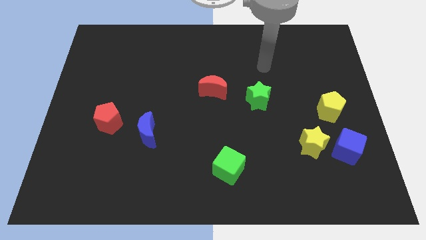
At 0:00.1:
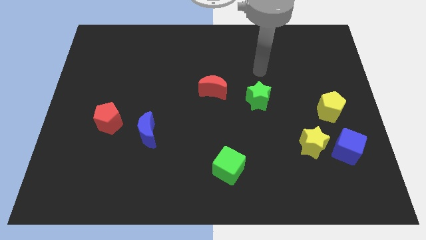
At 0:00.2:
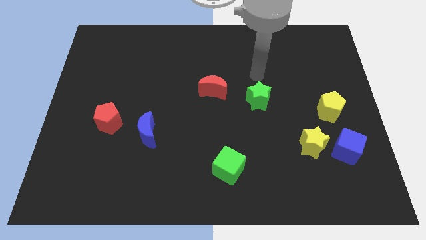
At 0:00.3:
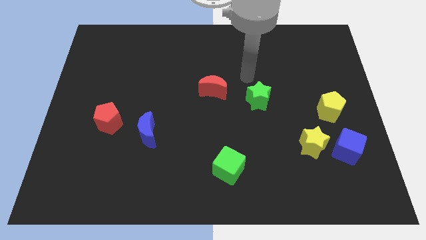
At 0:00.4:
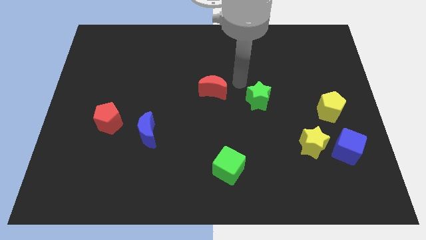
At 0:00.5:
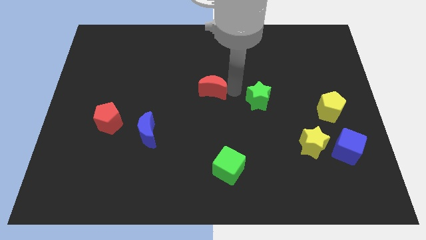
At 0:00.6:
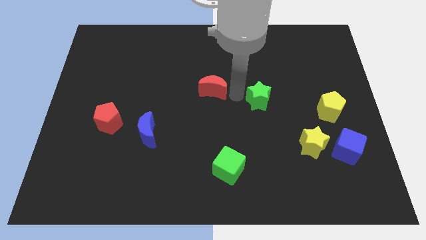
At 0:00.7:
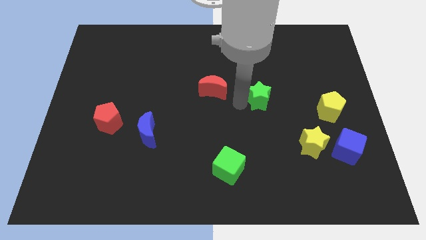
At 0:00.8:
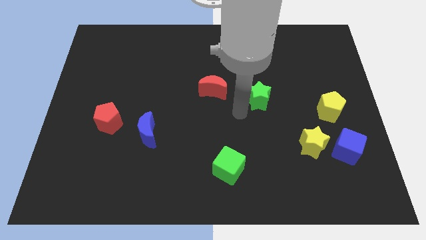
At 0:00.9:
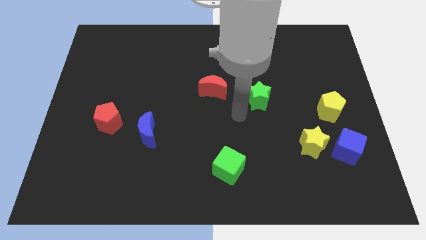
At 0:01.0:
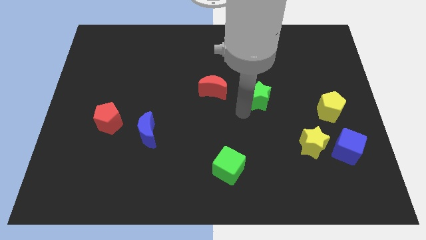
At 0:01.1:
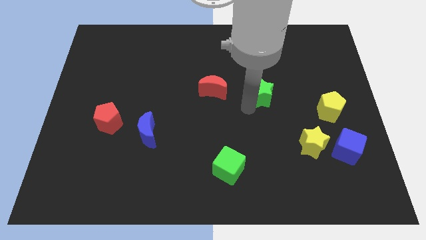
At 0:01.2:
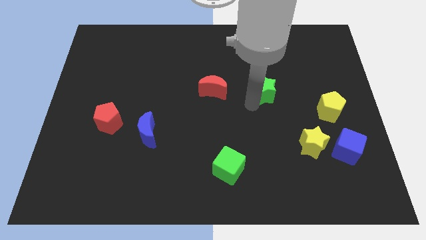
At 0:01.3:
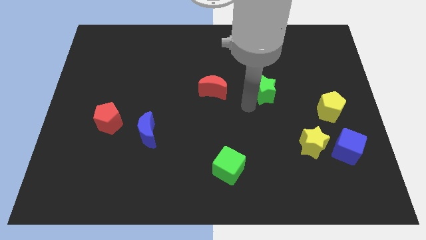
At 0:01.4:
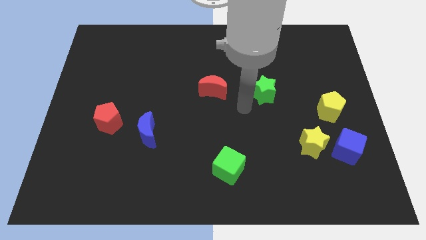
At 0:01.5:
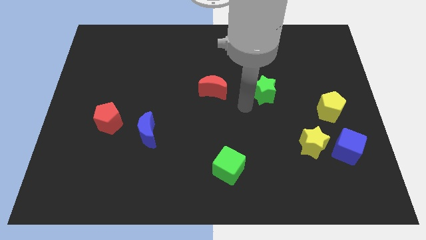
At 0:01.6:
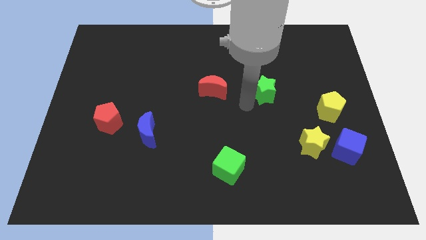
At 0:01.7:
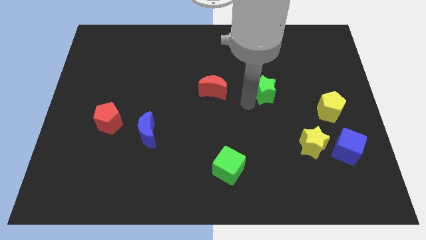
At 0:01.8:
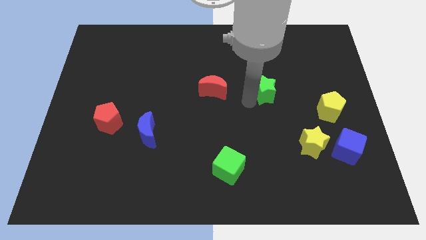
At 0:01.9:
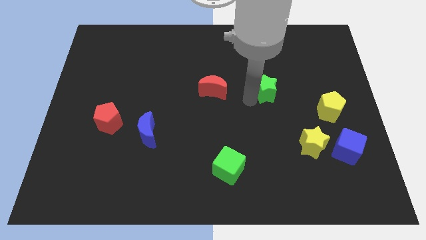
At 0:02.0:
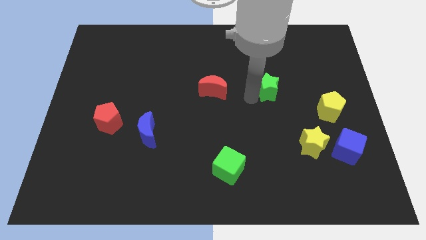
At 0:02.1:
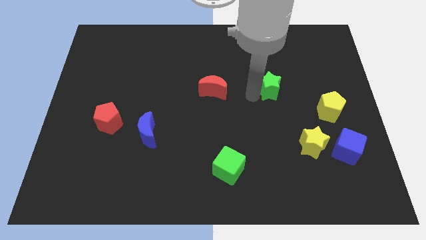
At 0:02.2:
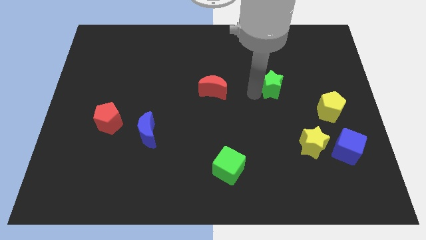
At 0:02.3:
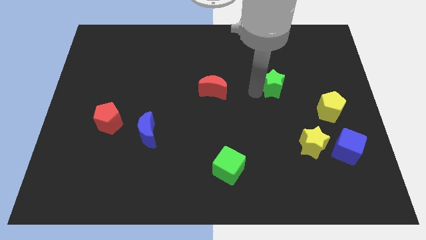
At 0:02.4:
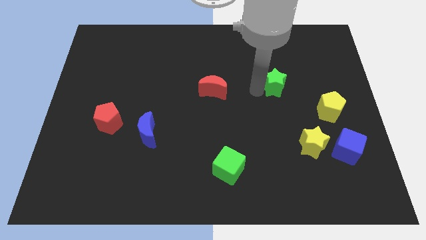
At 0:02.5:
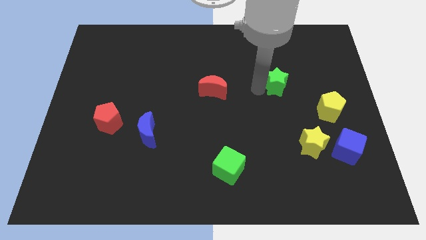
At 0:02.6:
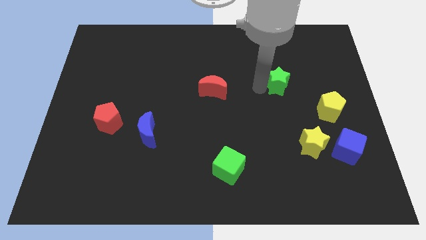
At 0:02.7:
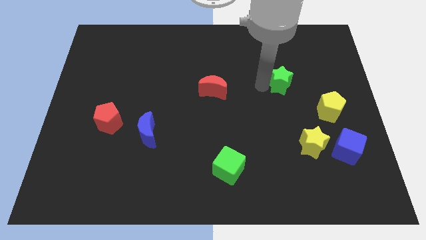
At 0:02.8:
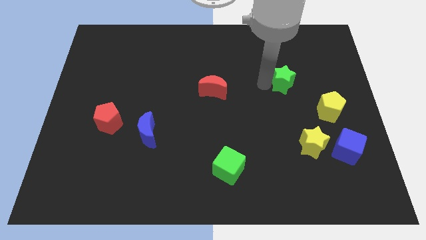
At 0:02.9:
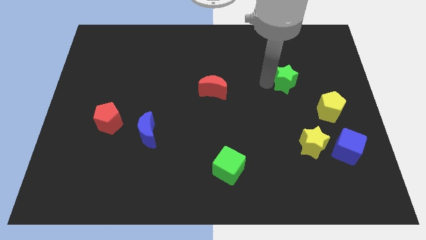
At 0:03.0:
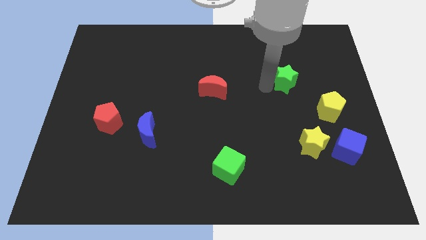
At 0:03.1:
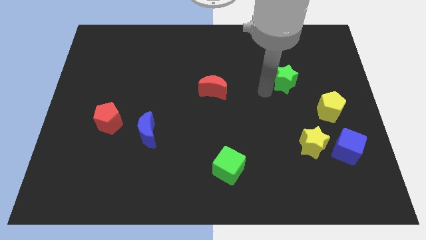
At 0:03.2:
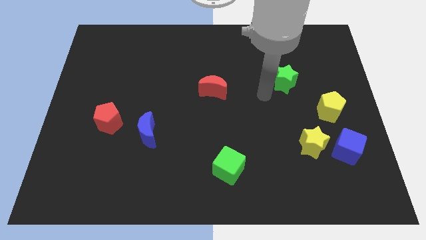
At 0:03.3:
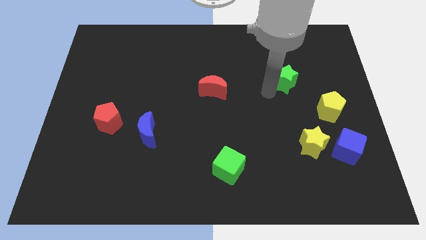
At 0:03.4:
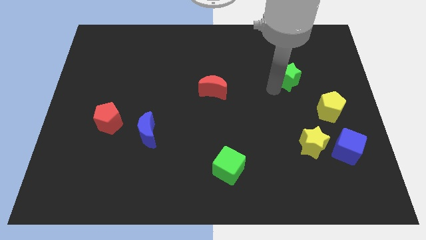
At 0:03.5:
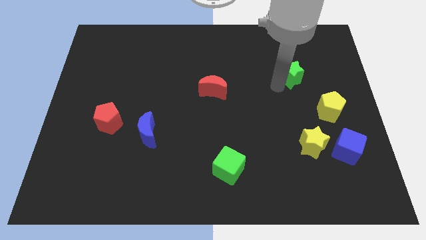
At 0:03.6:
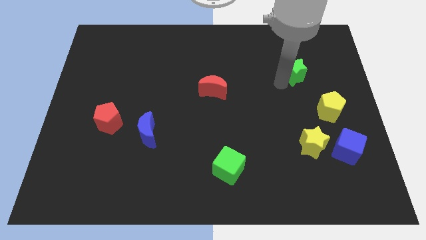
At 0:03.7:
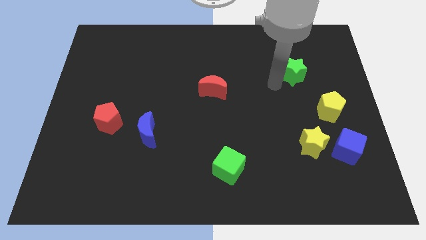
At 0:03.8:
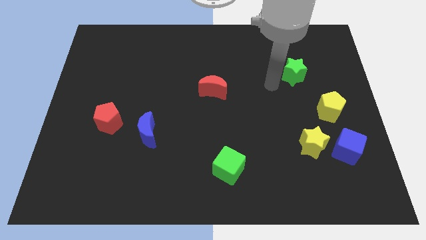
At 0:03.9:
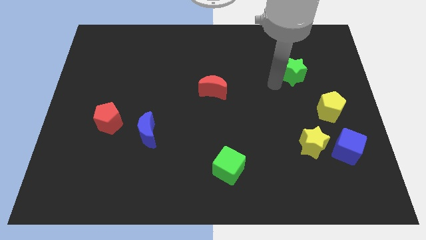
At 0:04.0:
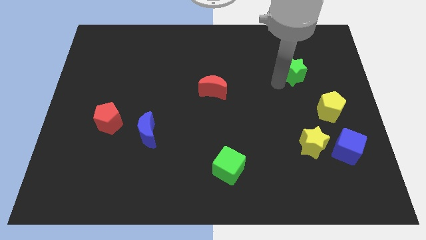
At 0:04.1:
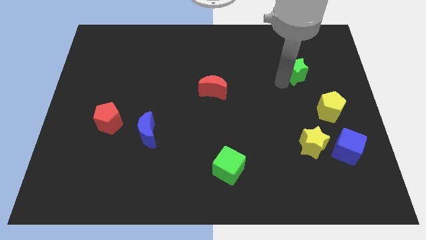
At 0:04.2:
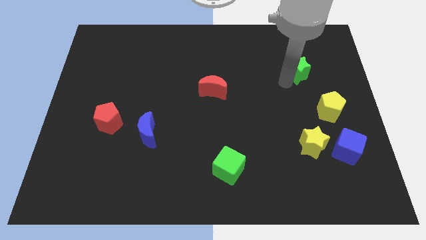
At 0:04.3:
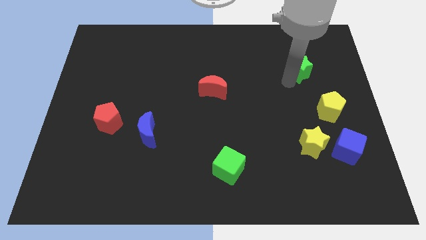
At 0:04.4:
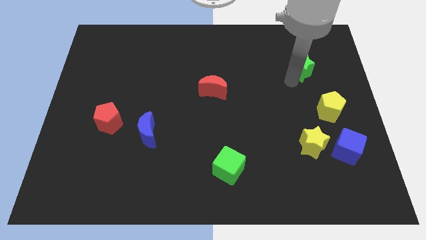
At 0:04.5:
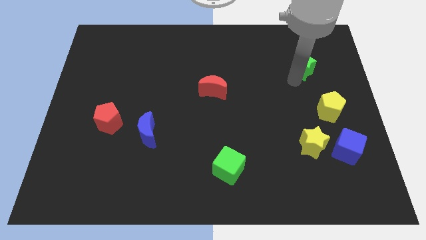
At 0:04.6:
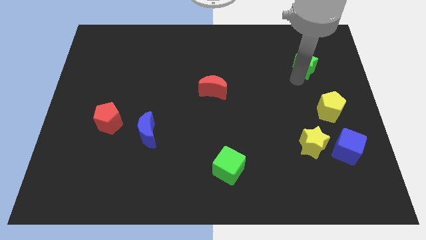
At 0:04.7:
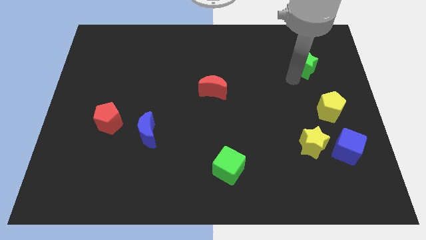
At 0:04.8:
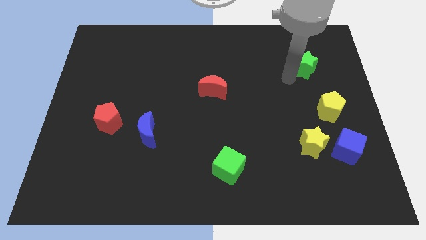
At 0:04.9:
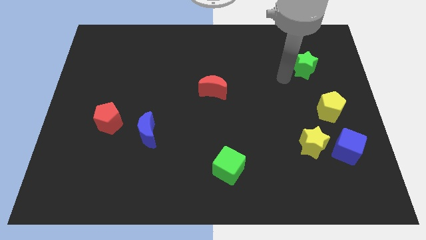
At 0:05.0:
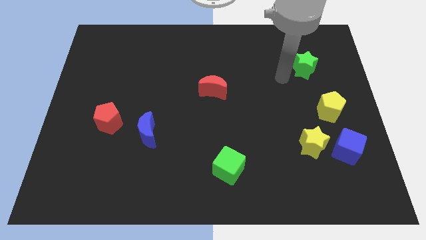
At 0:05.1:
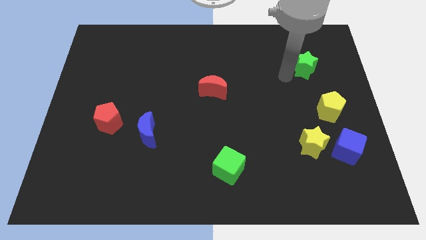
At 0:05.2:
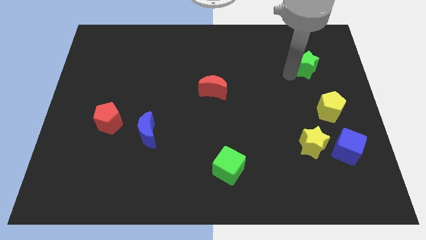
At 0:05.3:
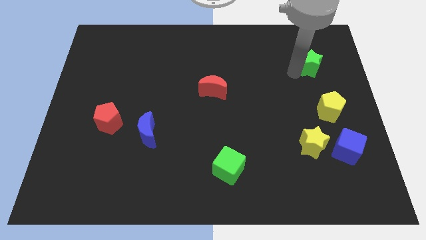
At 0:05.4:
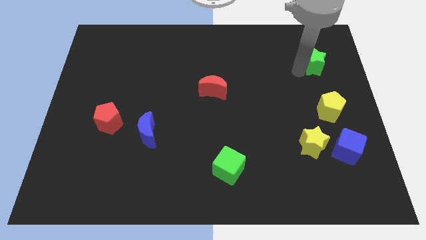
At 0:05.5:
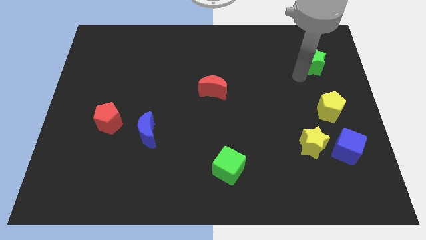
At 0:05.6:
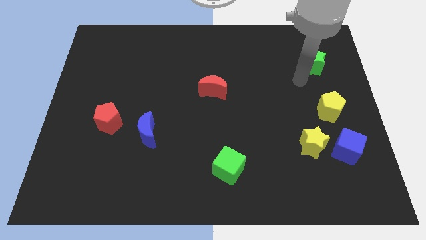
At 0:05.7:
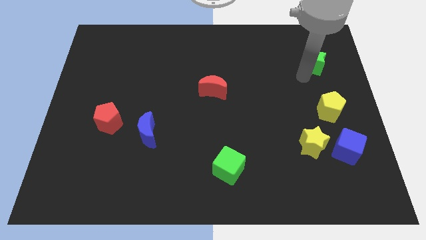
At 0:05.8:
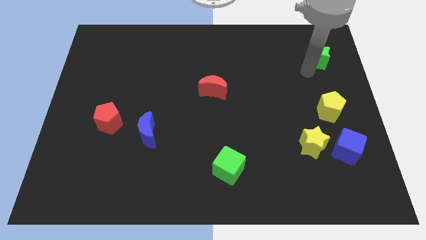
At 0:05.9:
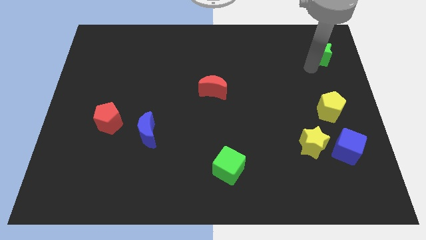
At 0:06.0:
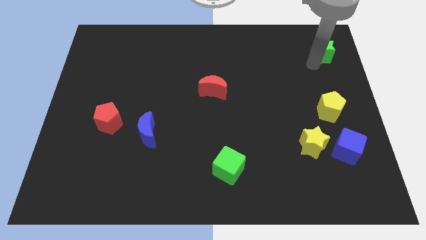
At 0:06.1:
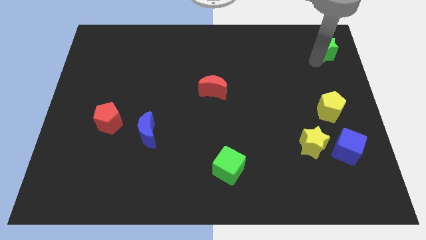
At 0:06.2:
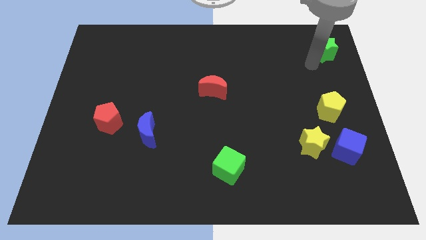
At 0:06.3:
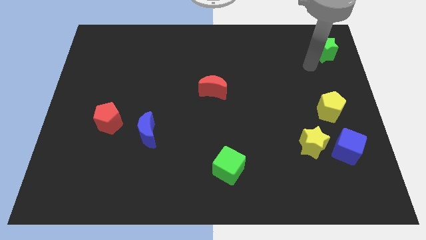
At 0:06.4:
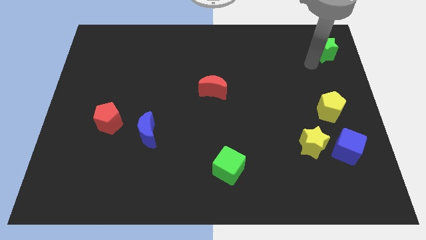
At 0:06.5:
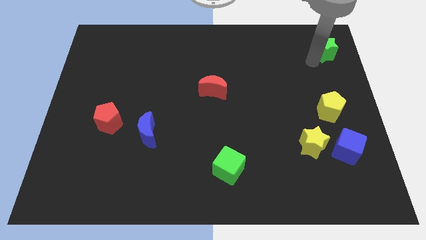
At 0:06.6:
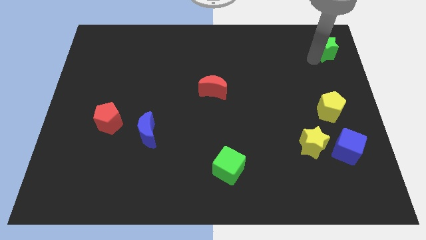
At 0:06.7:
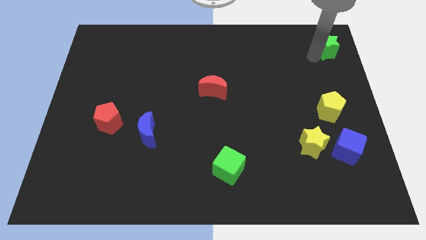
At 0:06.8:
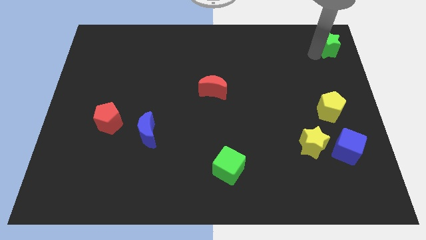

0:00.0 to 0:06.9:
push the green star to the top right corner
